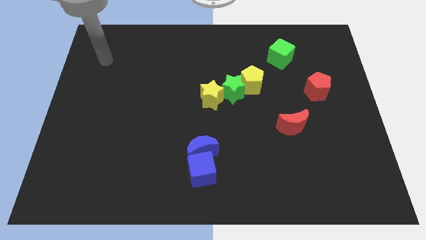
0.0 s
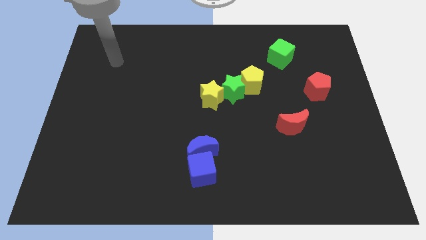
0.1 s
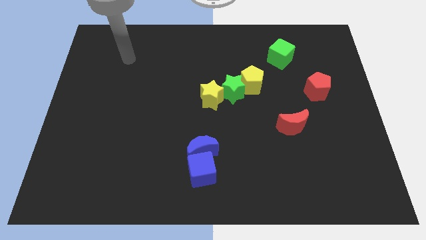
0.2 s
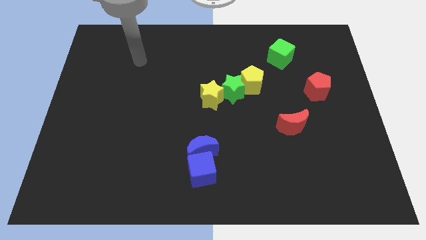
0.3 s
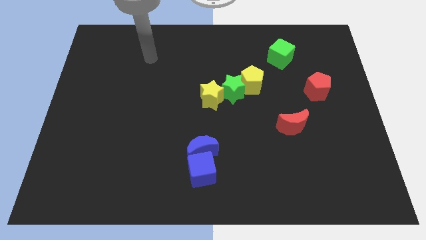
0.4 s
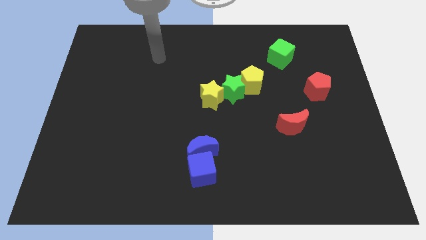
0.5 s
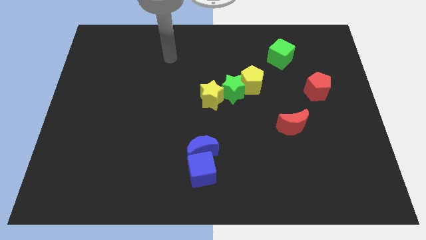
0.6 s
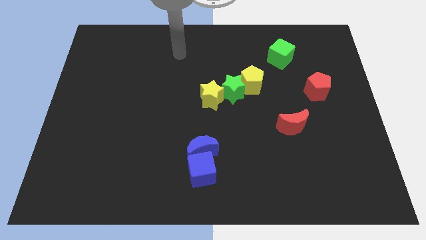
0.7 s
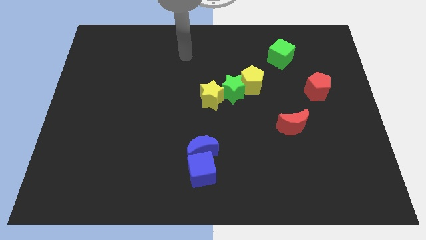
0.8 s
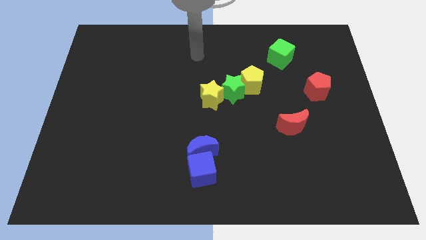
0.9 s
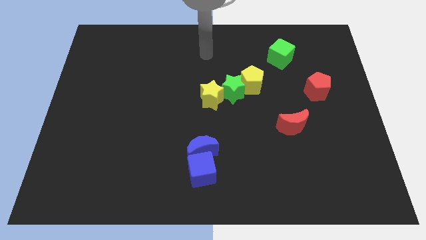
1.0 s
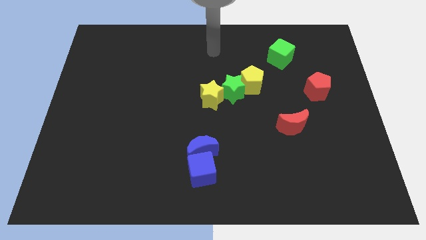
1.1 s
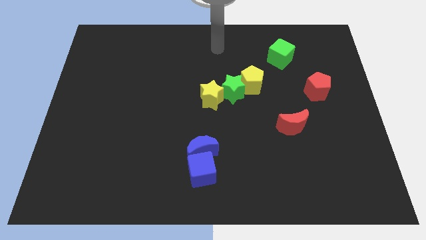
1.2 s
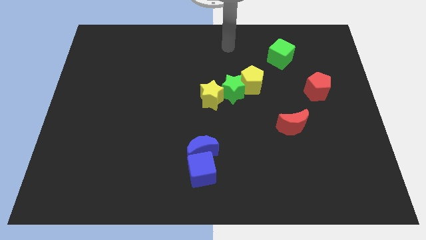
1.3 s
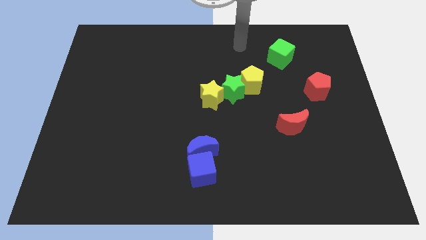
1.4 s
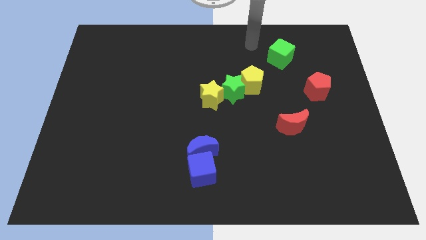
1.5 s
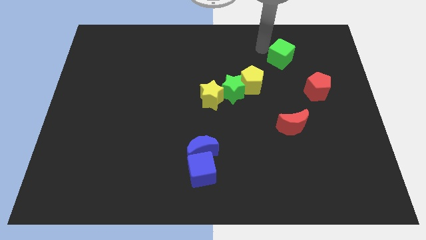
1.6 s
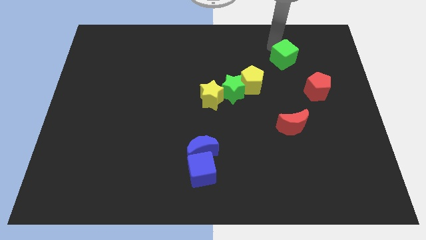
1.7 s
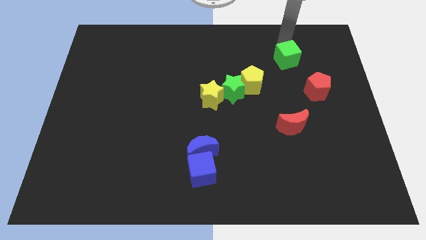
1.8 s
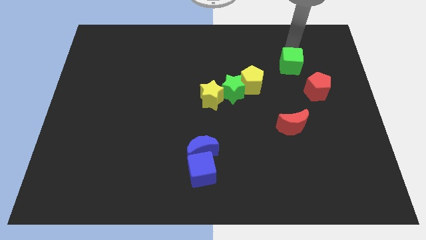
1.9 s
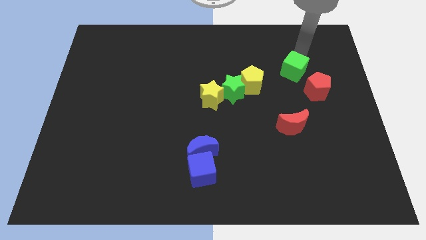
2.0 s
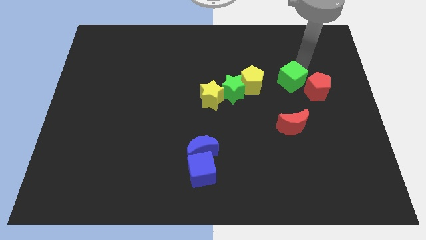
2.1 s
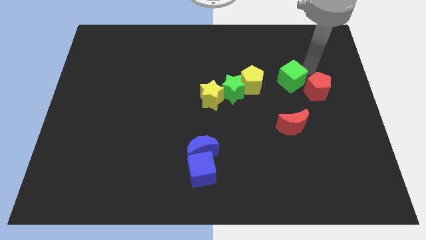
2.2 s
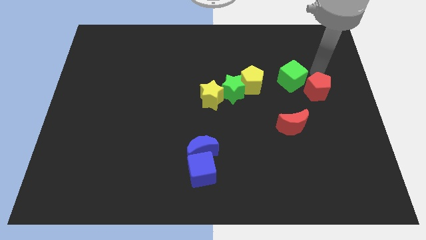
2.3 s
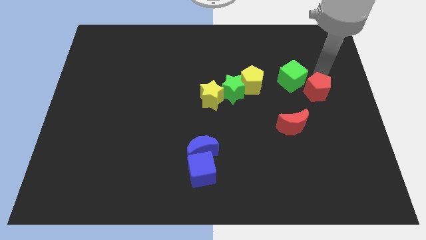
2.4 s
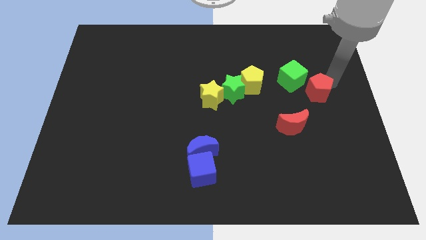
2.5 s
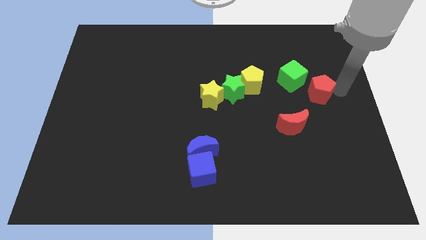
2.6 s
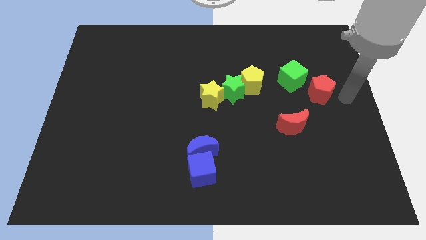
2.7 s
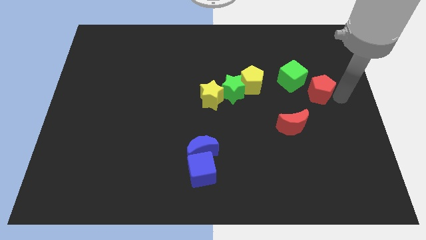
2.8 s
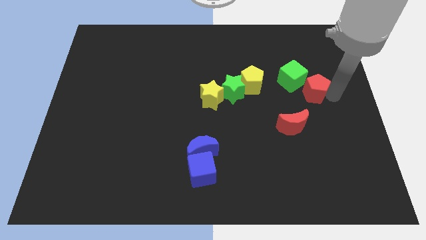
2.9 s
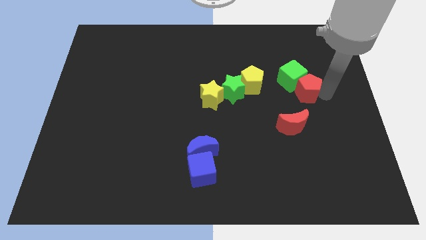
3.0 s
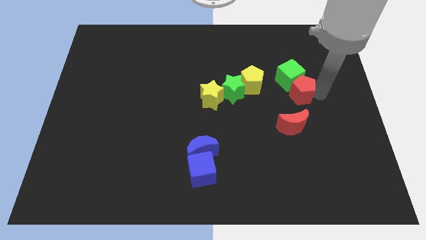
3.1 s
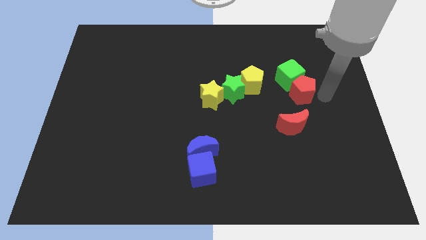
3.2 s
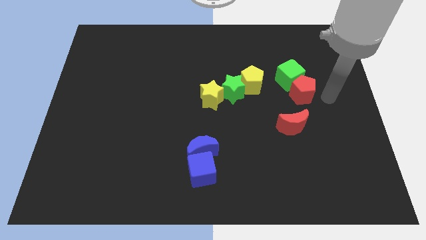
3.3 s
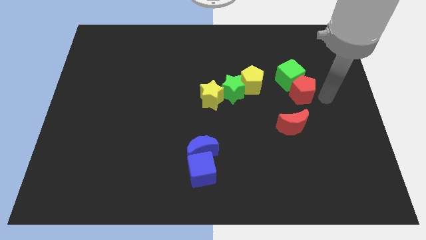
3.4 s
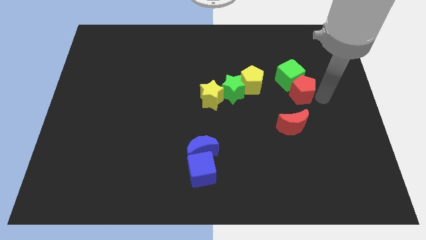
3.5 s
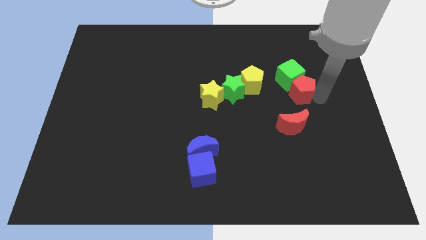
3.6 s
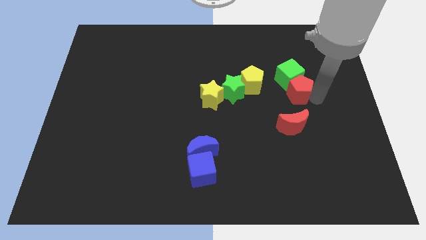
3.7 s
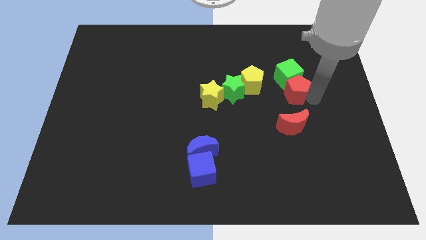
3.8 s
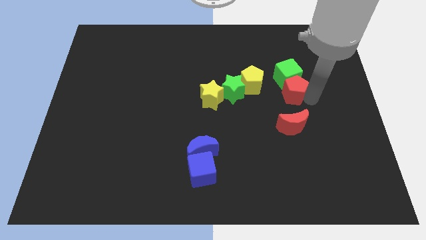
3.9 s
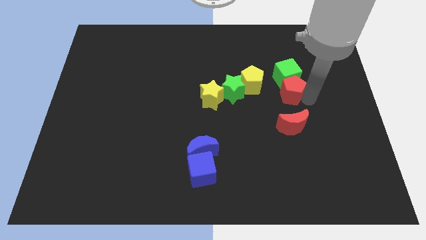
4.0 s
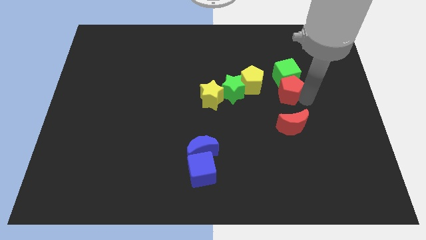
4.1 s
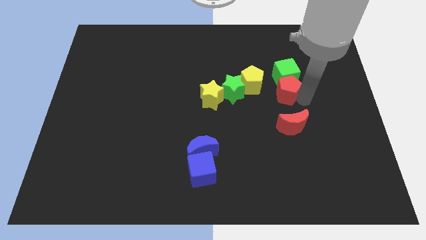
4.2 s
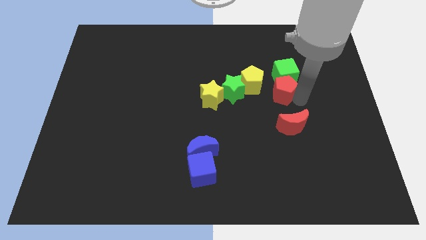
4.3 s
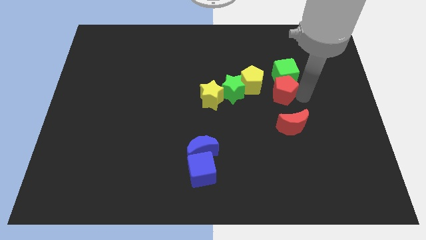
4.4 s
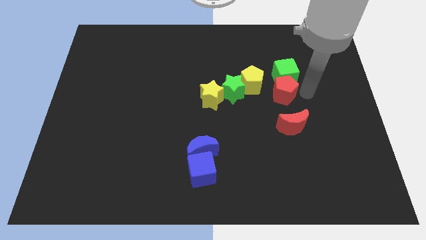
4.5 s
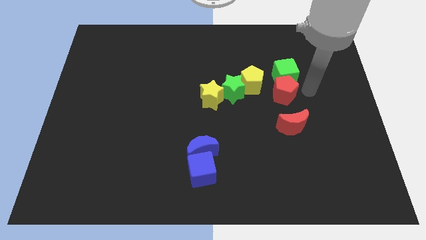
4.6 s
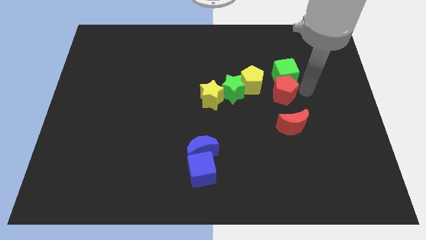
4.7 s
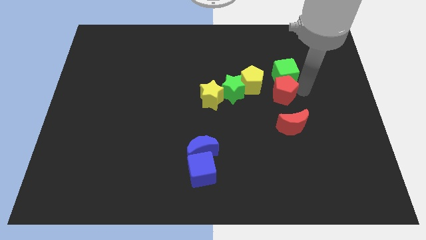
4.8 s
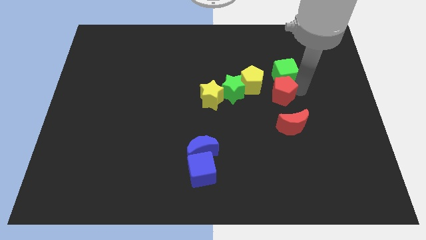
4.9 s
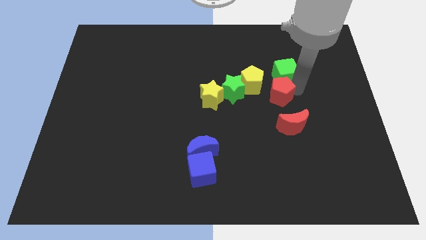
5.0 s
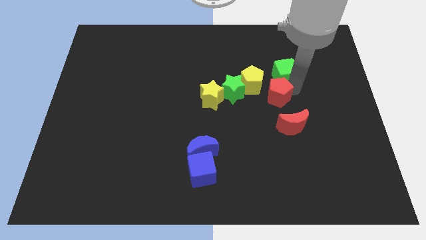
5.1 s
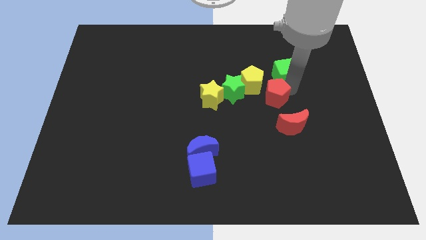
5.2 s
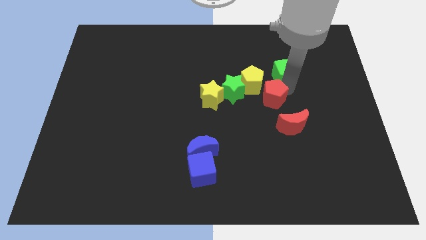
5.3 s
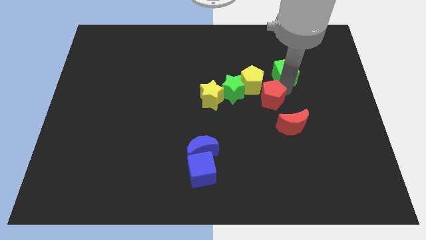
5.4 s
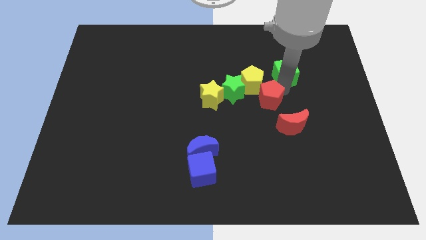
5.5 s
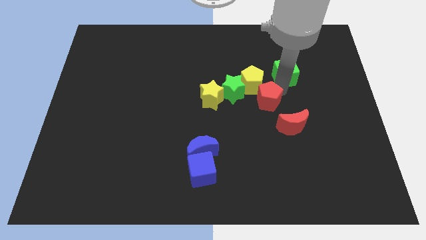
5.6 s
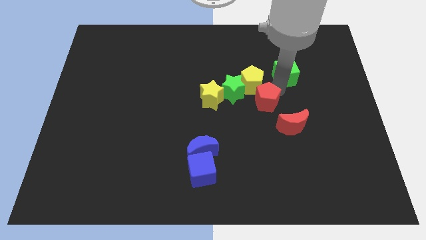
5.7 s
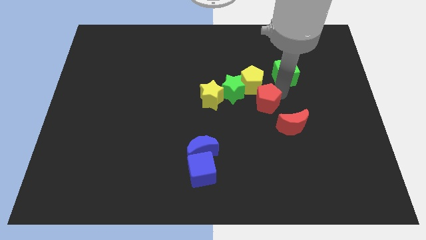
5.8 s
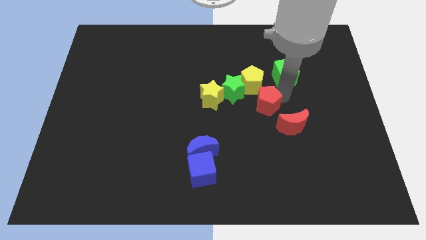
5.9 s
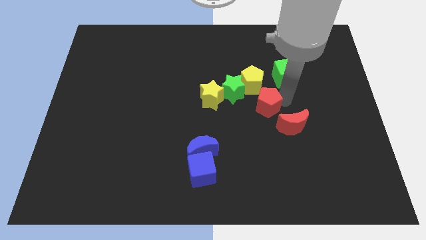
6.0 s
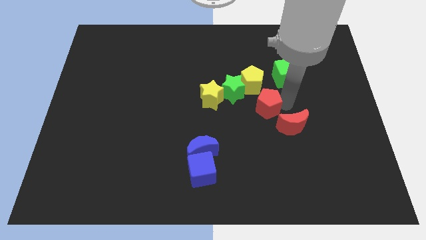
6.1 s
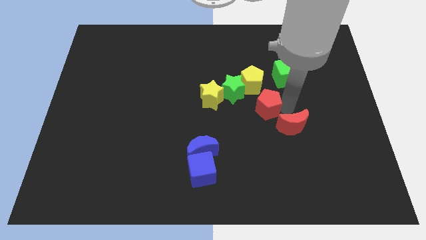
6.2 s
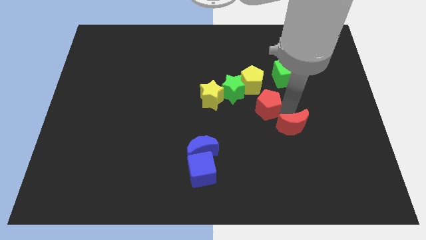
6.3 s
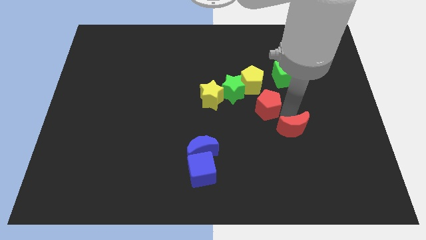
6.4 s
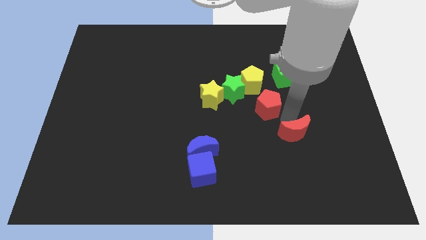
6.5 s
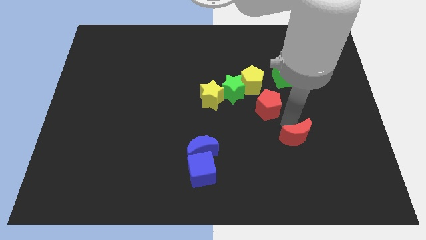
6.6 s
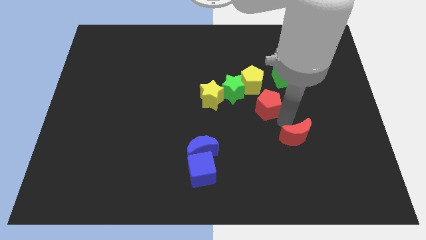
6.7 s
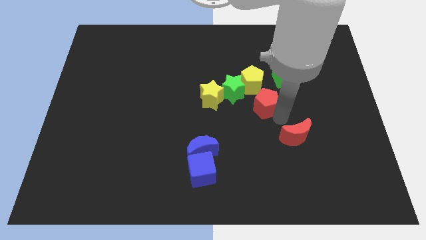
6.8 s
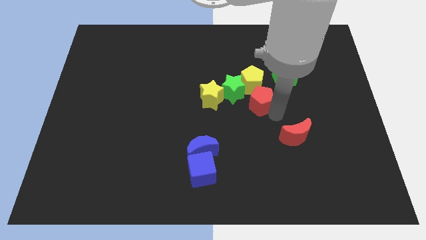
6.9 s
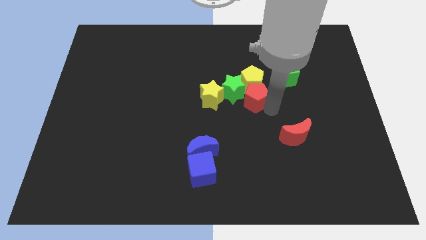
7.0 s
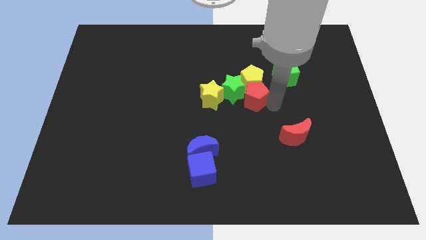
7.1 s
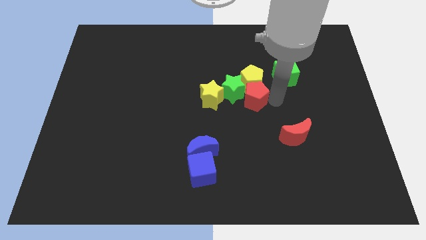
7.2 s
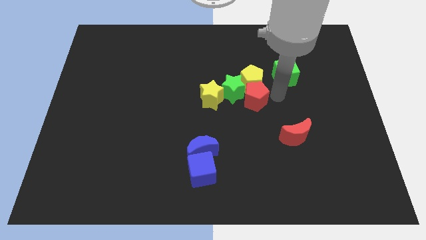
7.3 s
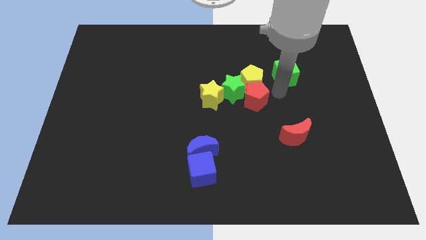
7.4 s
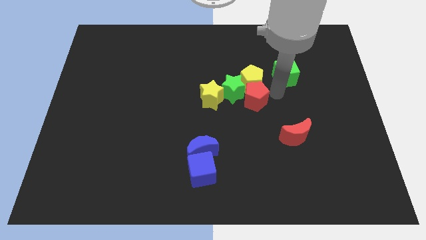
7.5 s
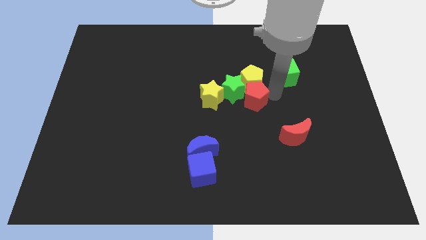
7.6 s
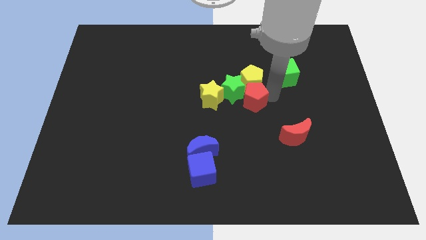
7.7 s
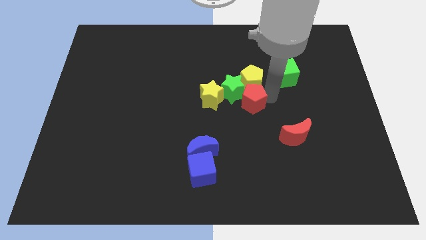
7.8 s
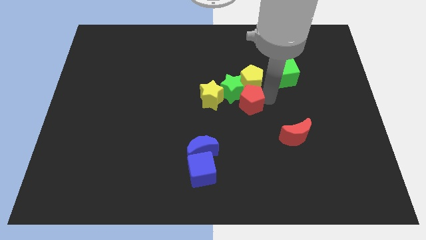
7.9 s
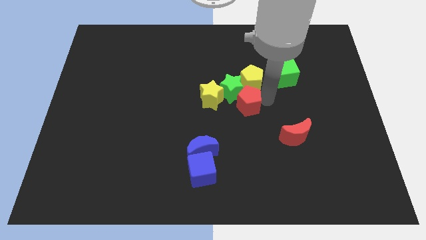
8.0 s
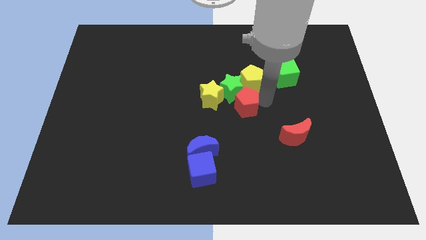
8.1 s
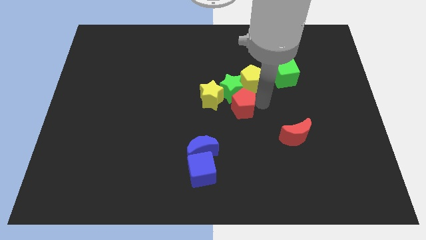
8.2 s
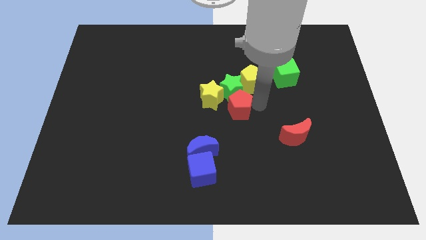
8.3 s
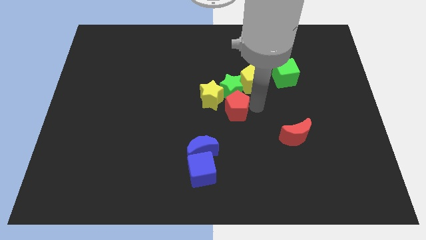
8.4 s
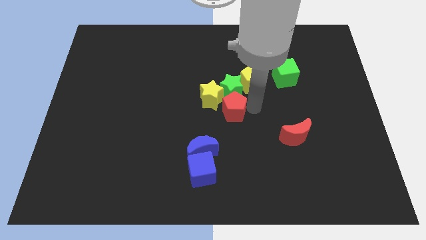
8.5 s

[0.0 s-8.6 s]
slide the red pentagon towards the yellow star
